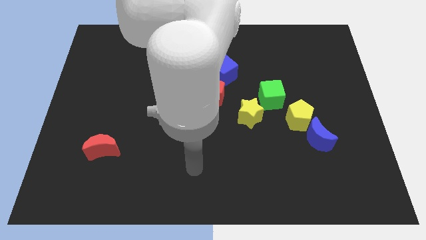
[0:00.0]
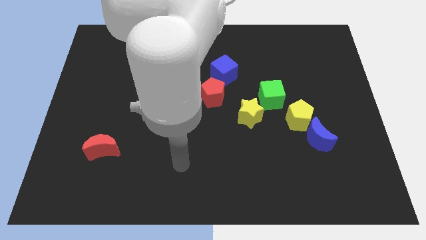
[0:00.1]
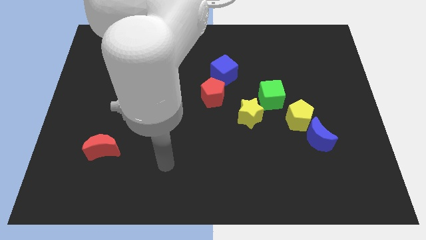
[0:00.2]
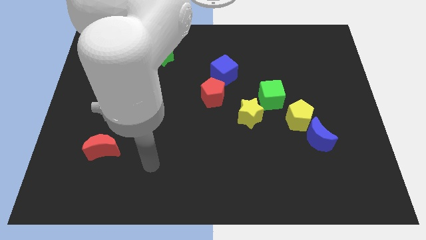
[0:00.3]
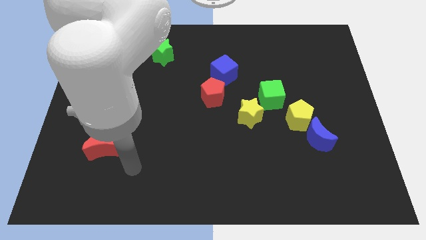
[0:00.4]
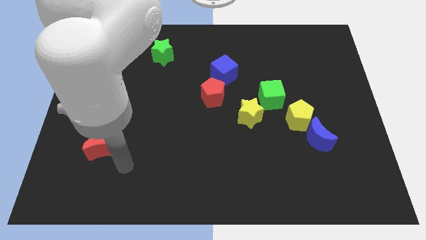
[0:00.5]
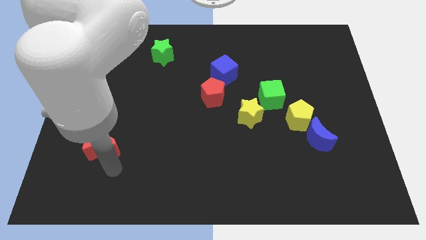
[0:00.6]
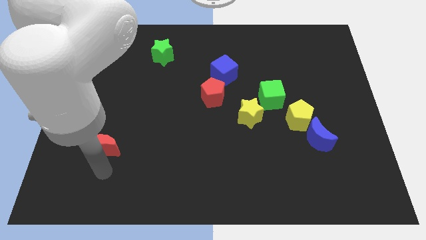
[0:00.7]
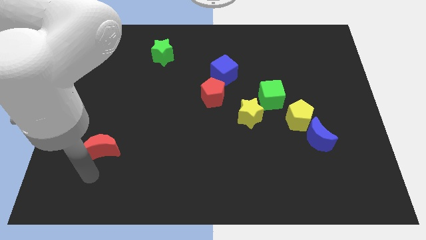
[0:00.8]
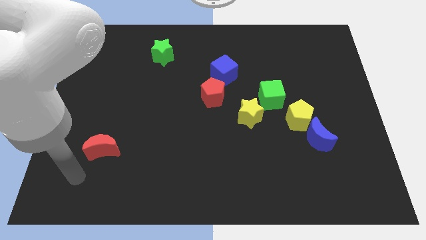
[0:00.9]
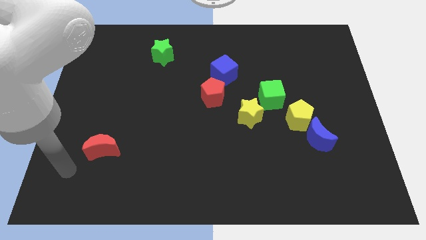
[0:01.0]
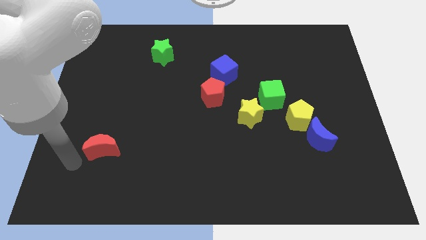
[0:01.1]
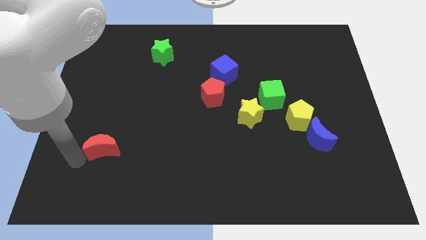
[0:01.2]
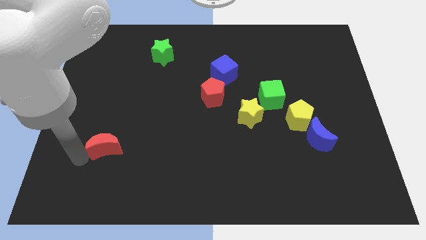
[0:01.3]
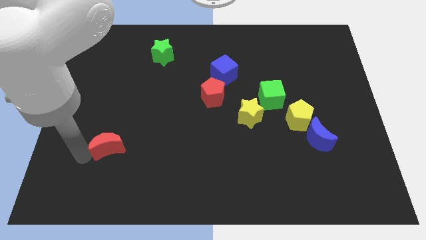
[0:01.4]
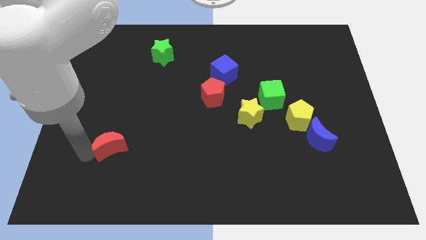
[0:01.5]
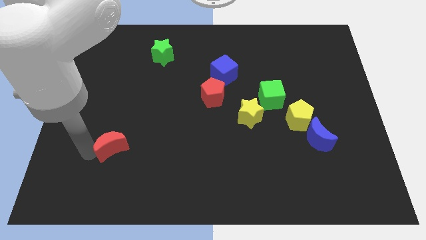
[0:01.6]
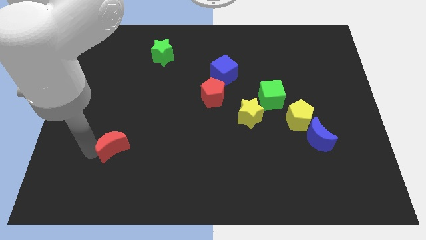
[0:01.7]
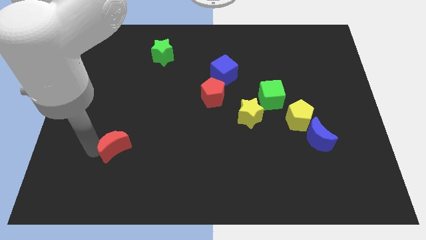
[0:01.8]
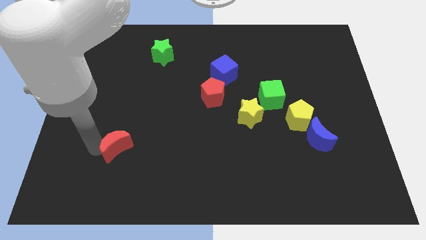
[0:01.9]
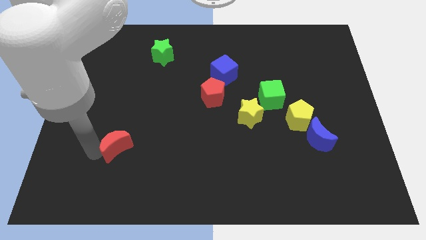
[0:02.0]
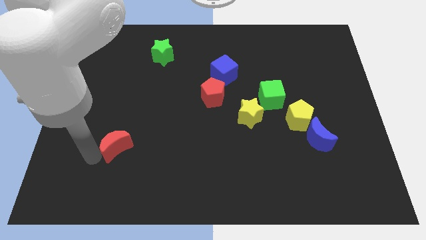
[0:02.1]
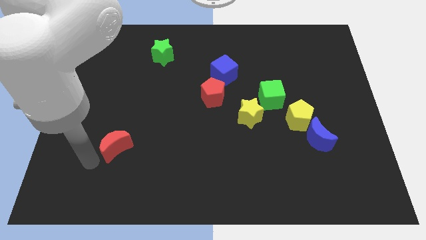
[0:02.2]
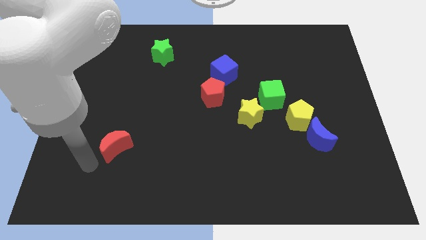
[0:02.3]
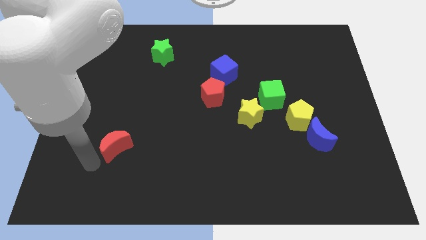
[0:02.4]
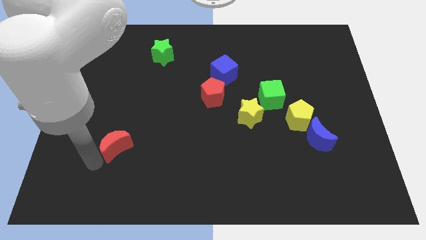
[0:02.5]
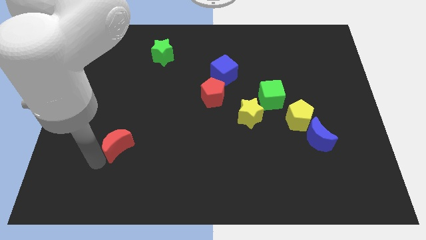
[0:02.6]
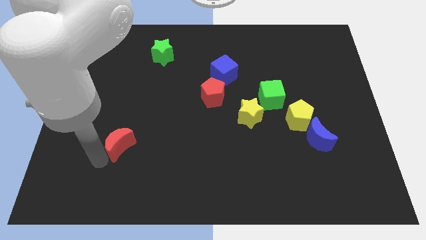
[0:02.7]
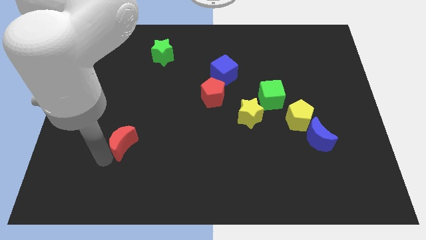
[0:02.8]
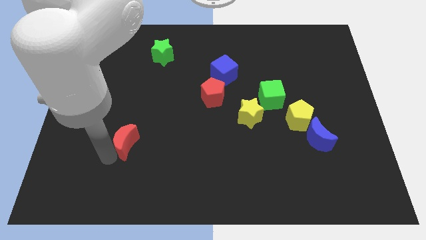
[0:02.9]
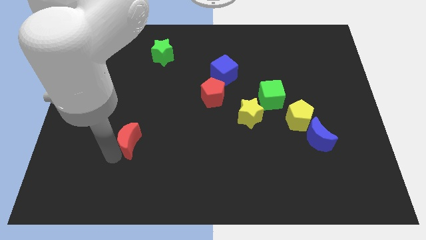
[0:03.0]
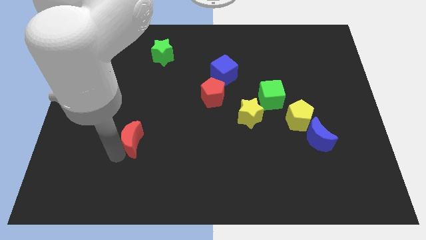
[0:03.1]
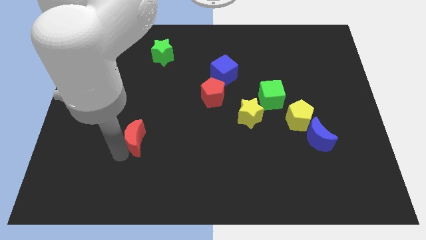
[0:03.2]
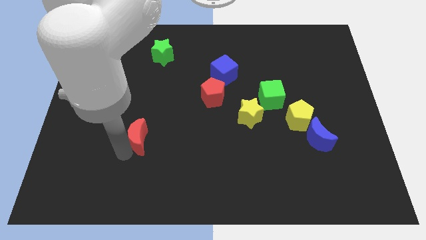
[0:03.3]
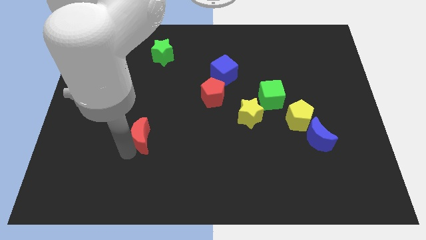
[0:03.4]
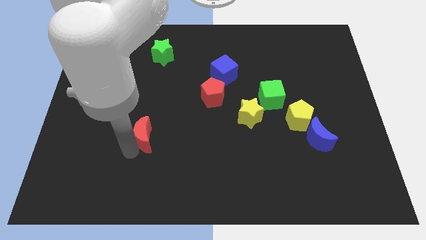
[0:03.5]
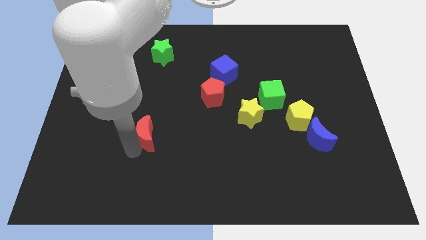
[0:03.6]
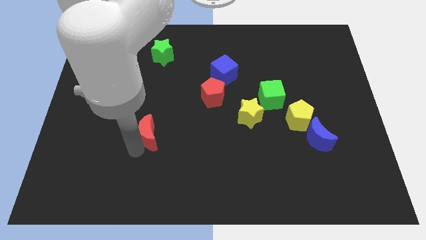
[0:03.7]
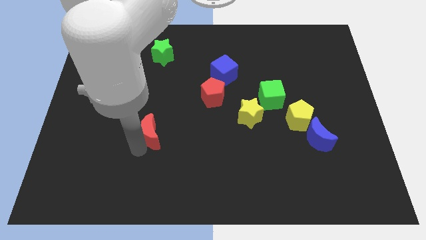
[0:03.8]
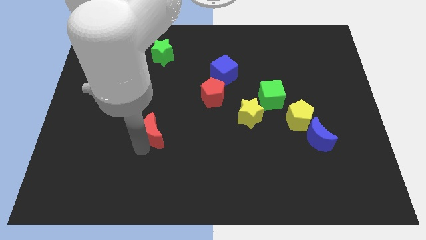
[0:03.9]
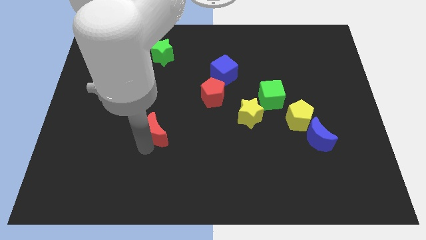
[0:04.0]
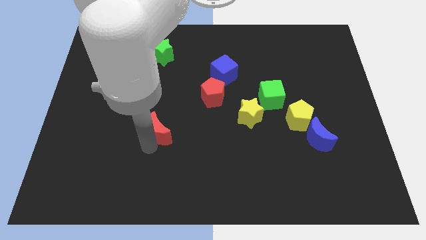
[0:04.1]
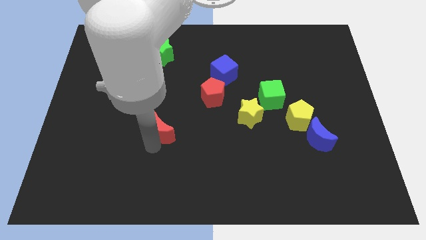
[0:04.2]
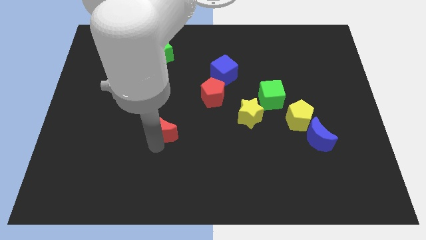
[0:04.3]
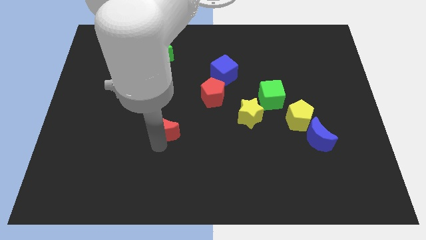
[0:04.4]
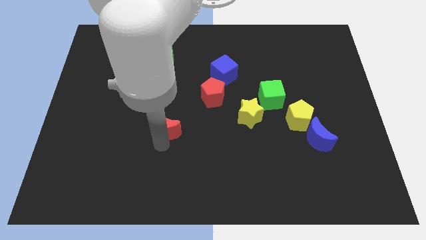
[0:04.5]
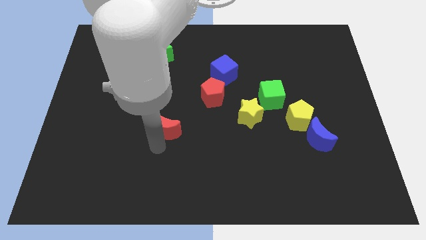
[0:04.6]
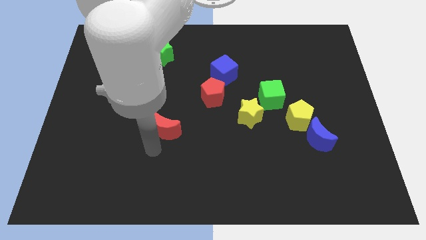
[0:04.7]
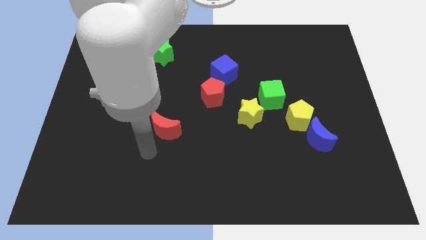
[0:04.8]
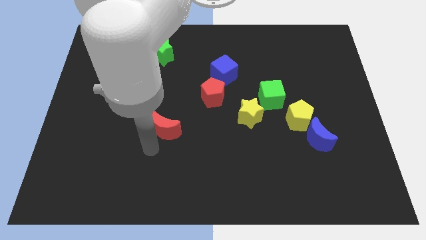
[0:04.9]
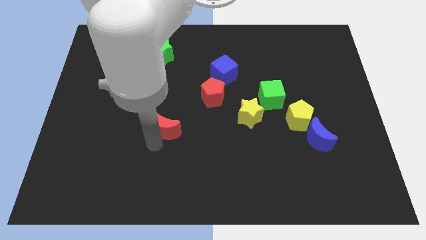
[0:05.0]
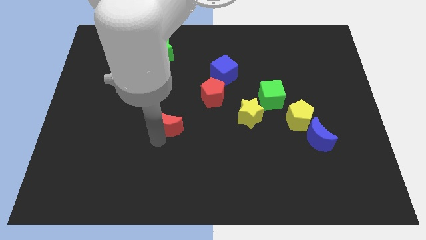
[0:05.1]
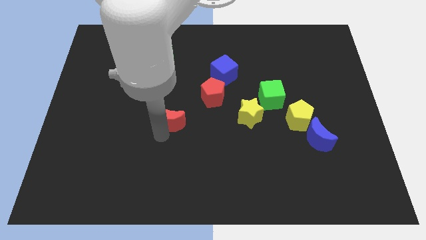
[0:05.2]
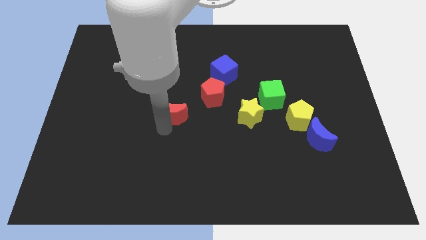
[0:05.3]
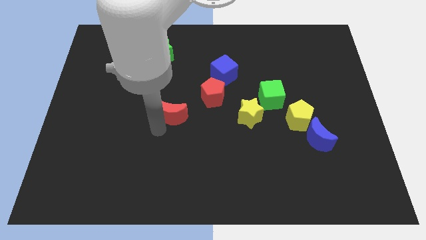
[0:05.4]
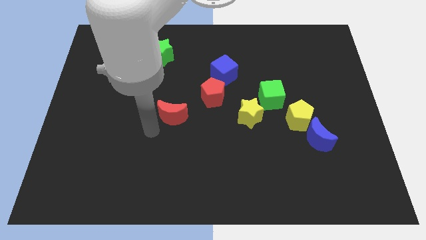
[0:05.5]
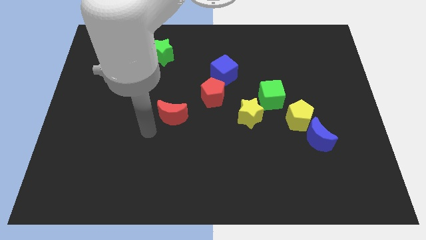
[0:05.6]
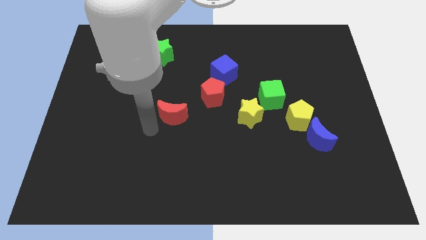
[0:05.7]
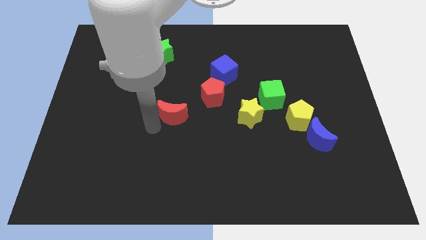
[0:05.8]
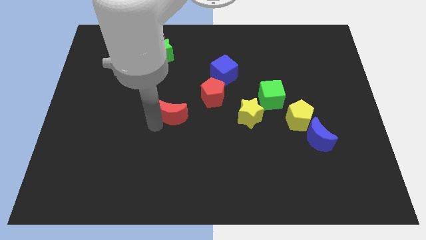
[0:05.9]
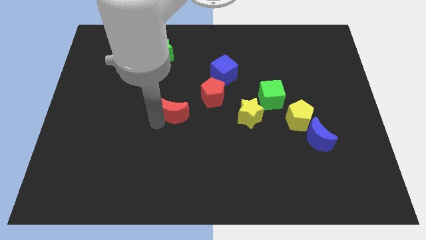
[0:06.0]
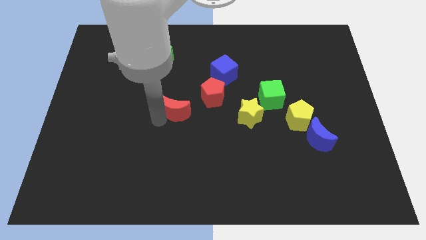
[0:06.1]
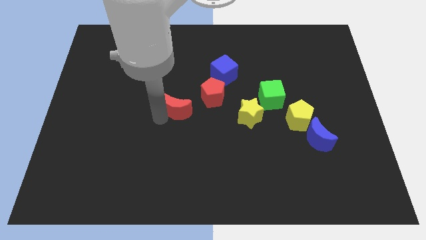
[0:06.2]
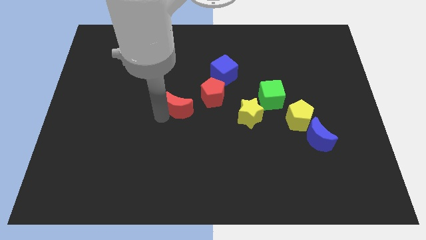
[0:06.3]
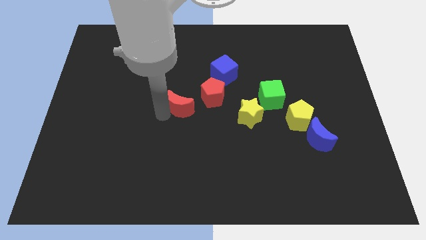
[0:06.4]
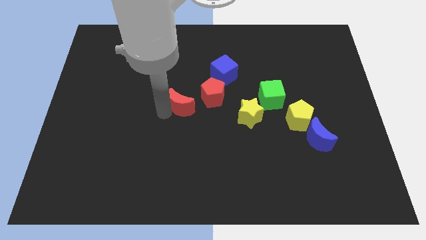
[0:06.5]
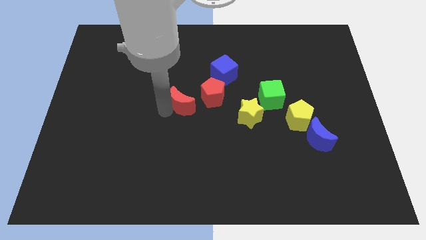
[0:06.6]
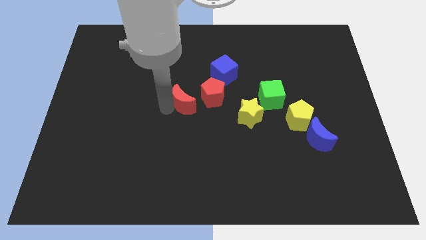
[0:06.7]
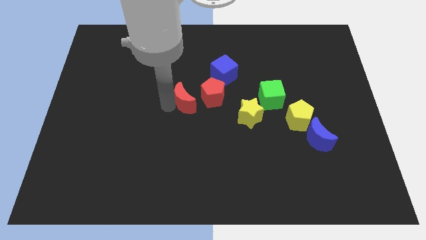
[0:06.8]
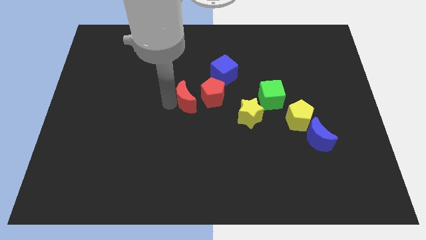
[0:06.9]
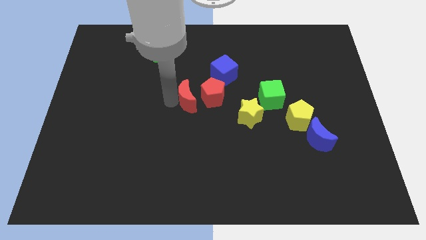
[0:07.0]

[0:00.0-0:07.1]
put the red moon to the red pentagon

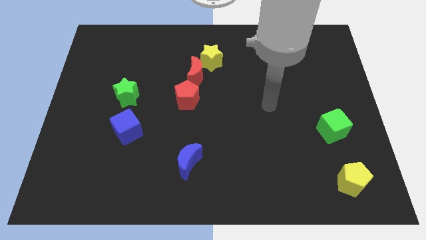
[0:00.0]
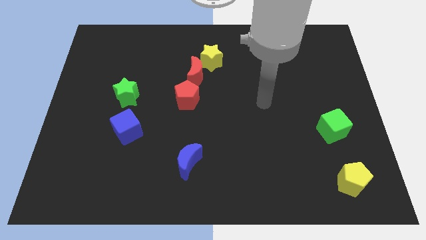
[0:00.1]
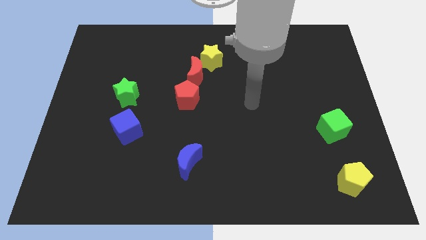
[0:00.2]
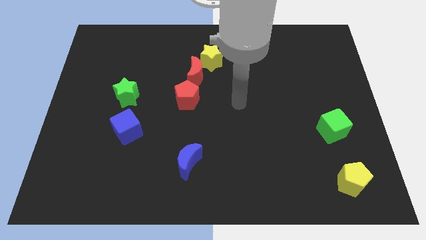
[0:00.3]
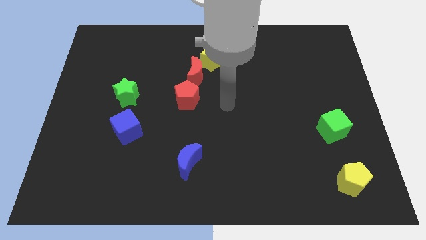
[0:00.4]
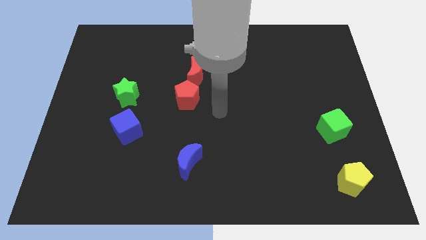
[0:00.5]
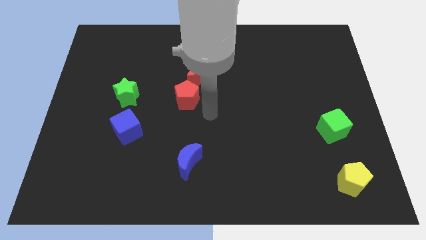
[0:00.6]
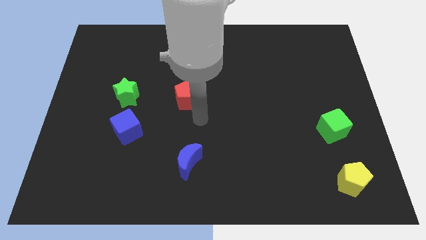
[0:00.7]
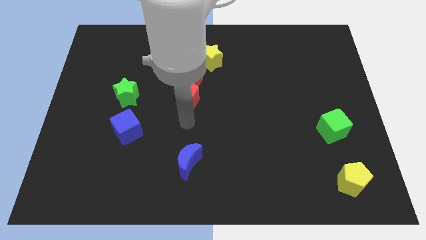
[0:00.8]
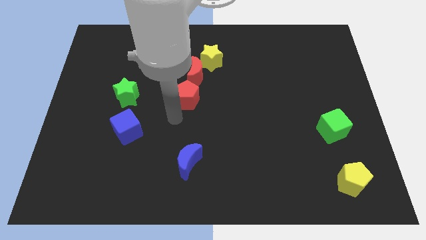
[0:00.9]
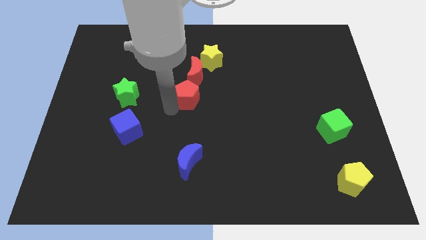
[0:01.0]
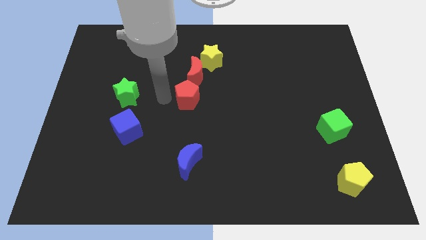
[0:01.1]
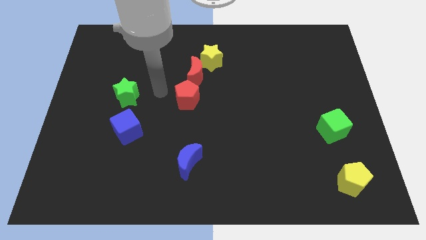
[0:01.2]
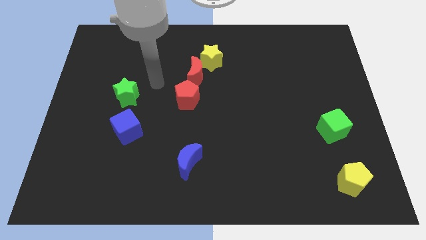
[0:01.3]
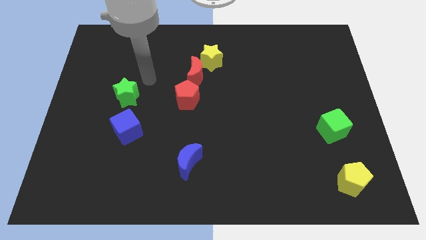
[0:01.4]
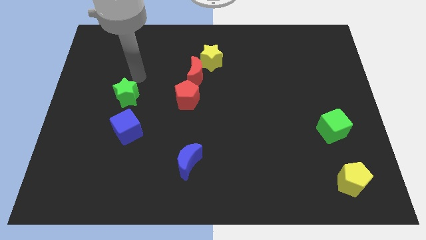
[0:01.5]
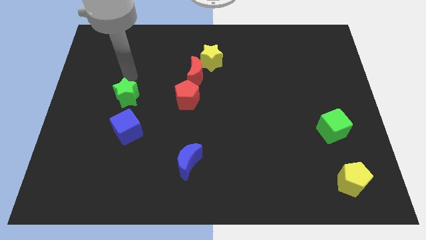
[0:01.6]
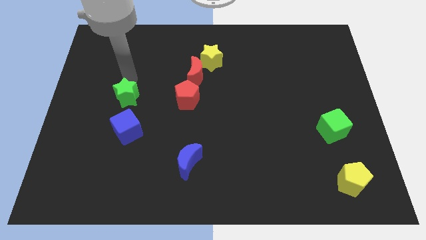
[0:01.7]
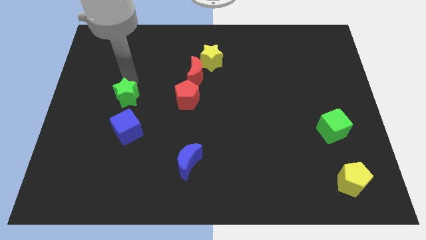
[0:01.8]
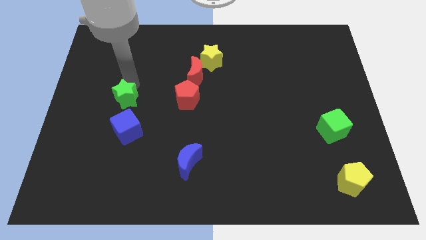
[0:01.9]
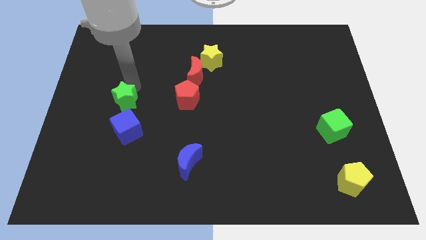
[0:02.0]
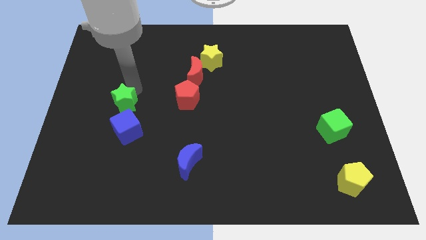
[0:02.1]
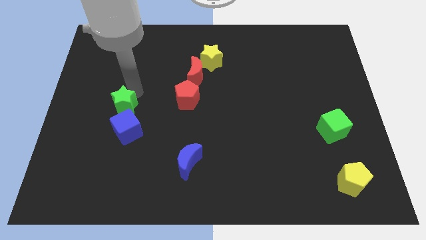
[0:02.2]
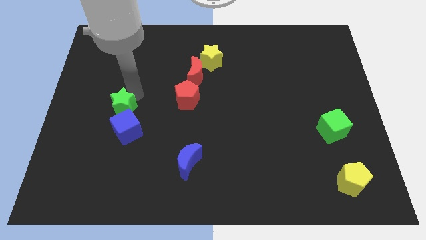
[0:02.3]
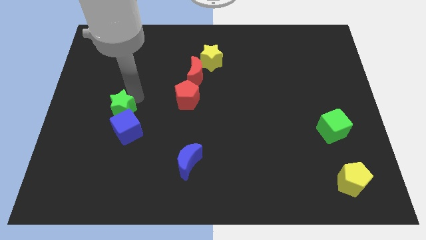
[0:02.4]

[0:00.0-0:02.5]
slide the green star towards the blue cube
